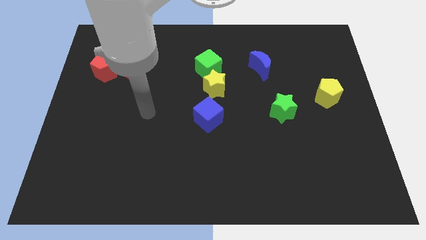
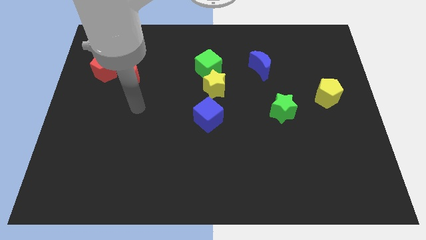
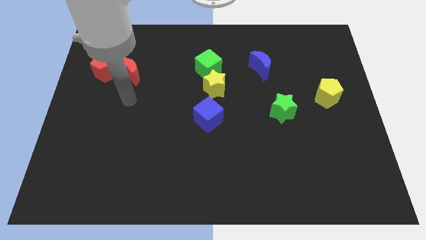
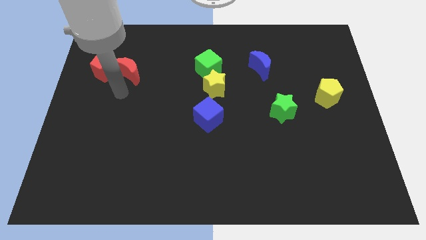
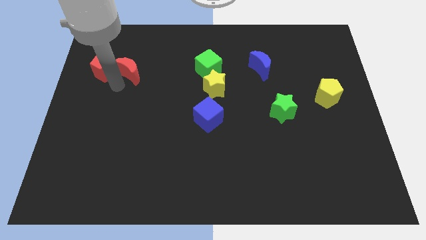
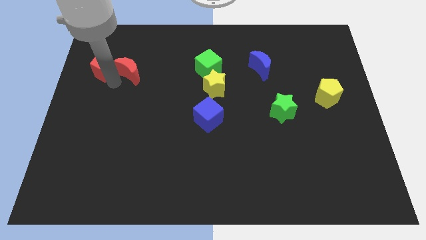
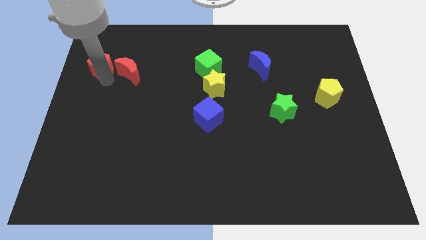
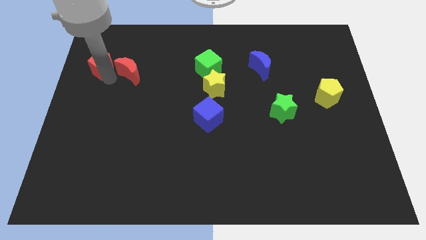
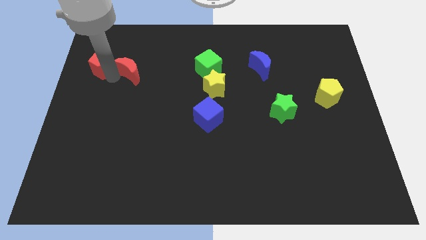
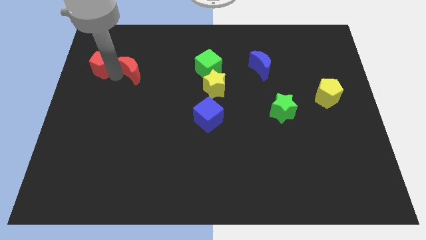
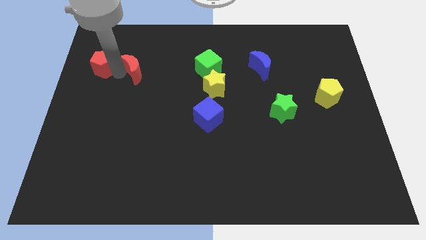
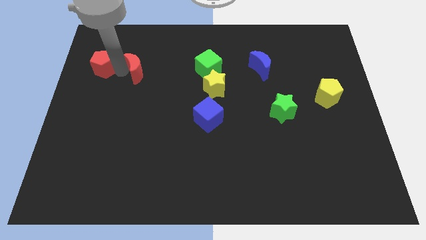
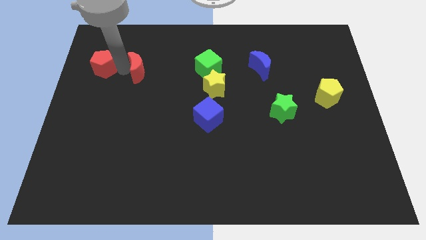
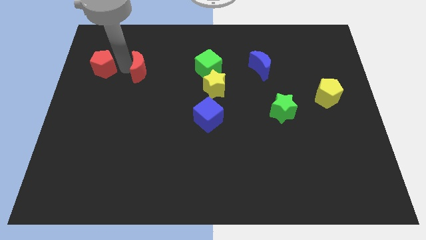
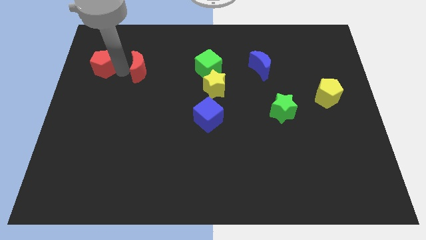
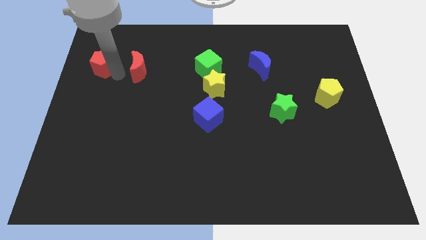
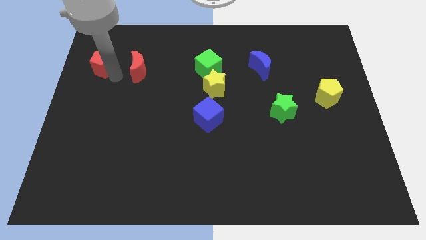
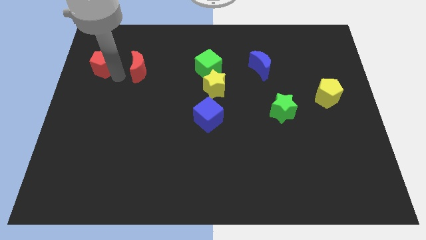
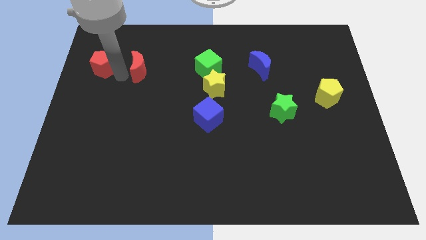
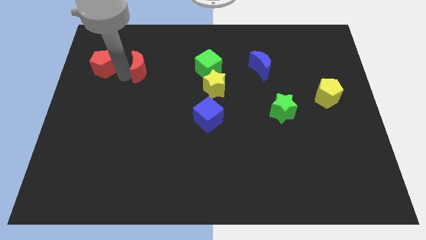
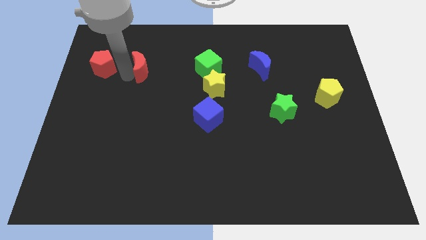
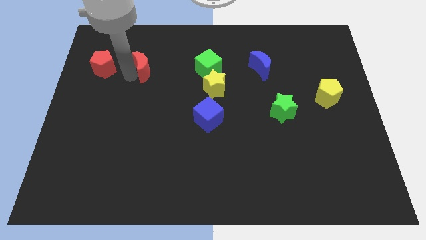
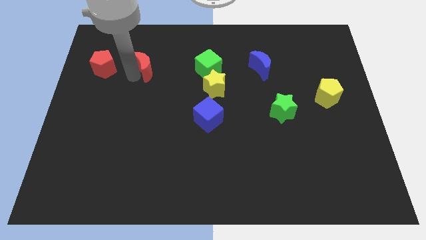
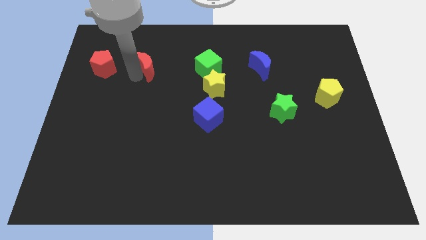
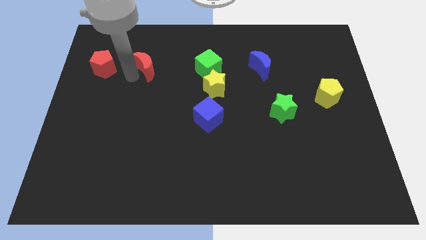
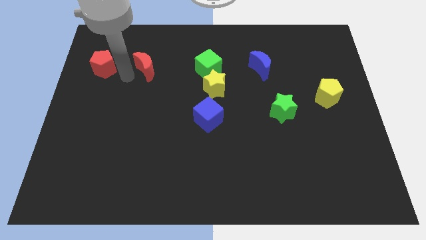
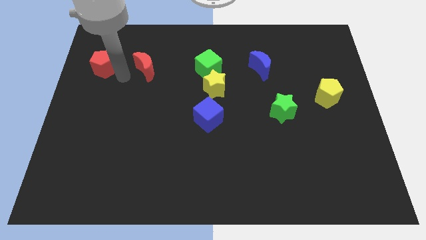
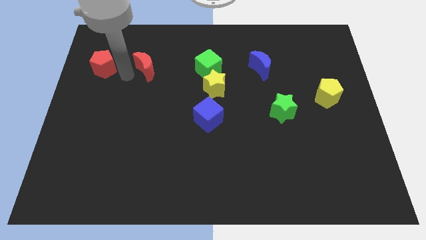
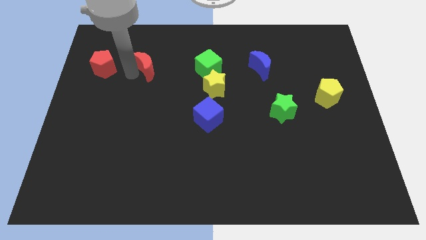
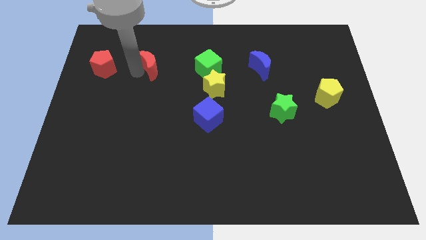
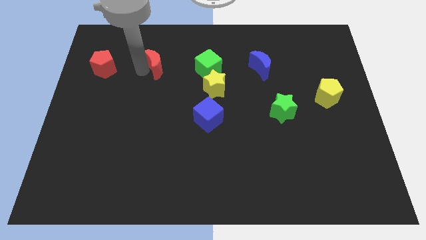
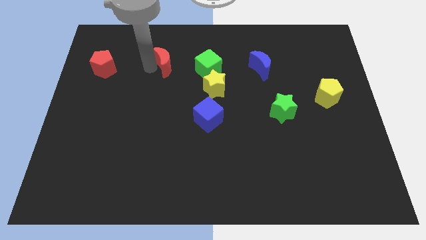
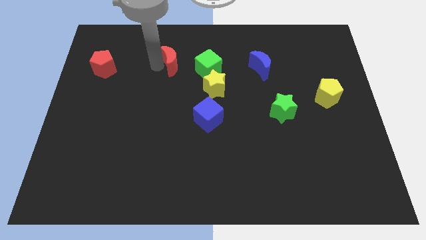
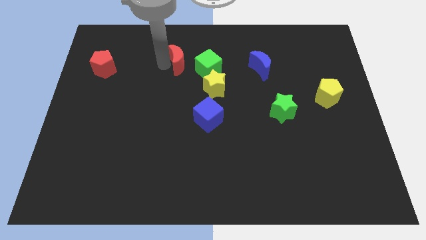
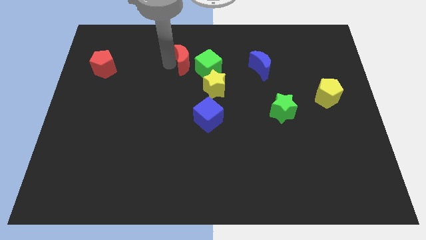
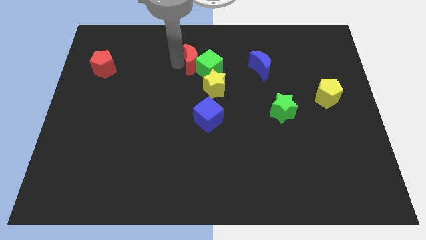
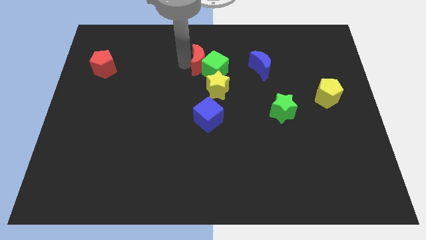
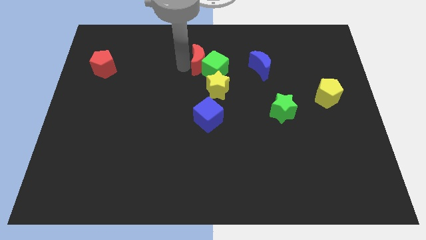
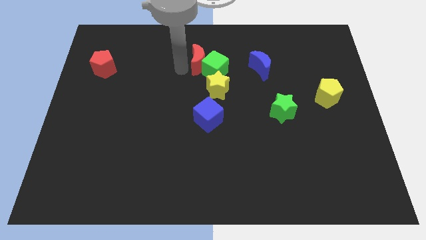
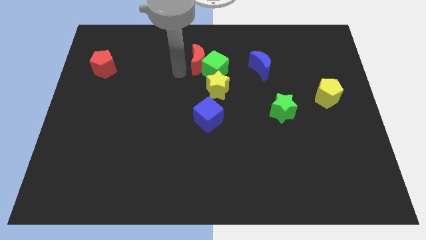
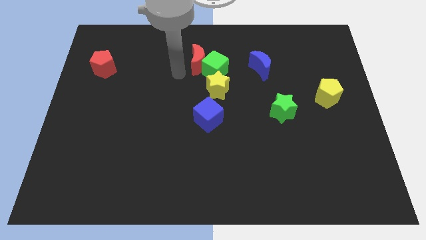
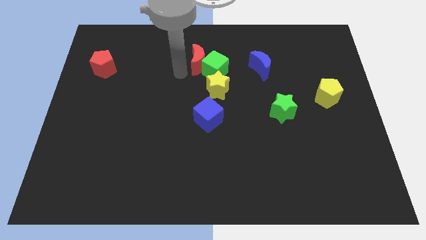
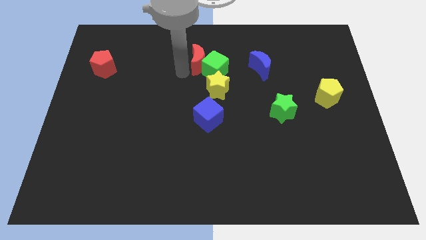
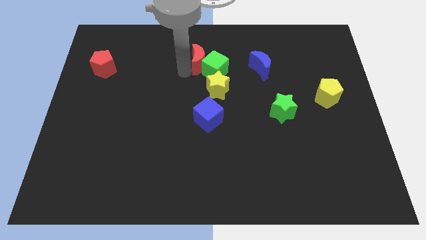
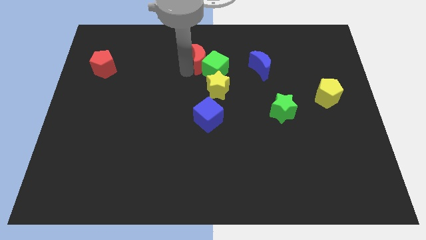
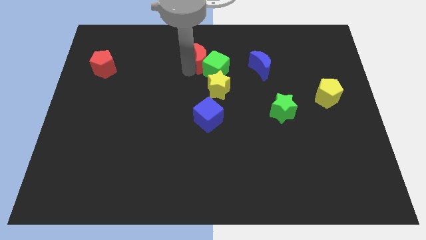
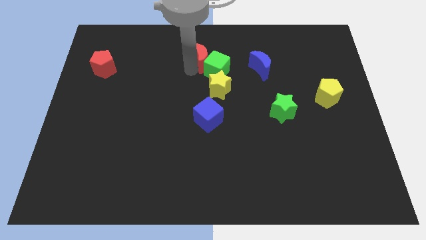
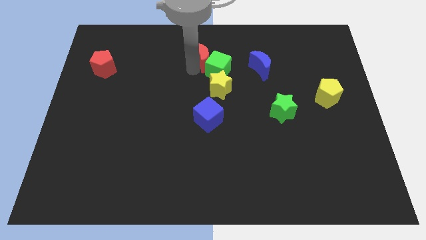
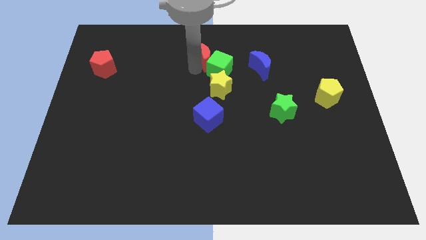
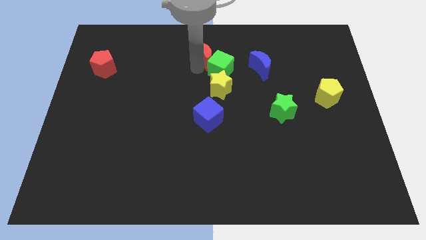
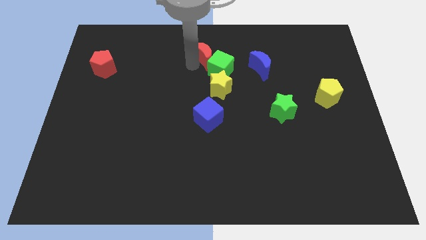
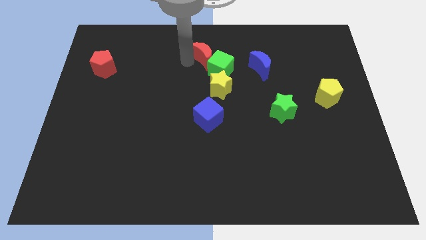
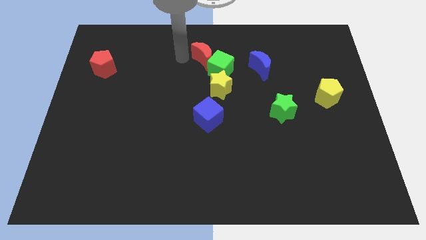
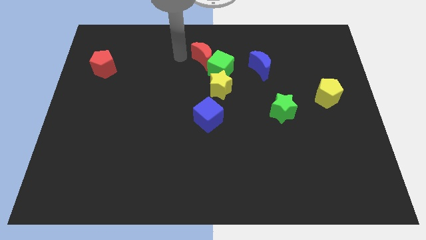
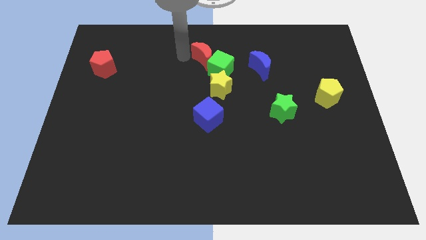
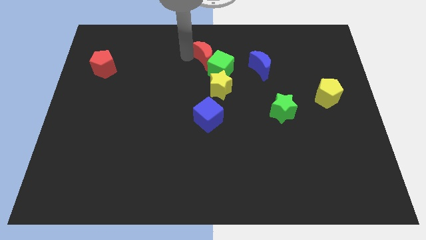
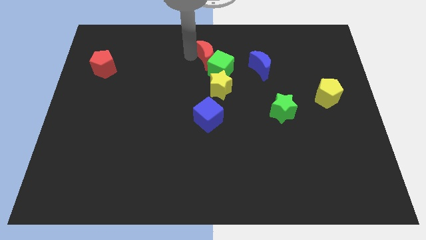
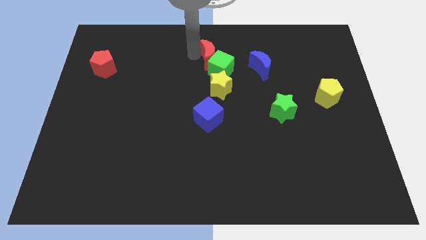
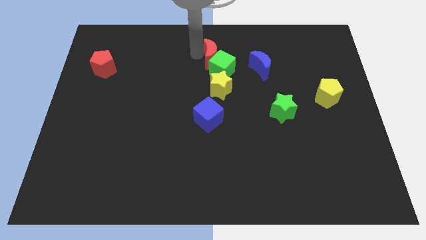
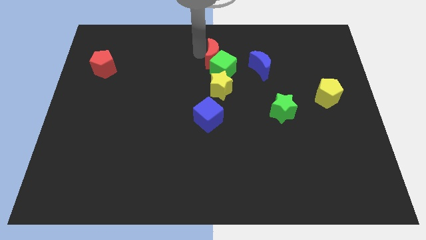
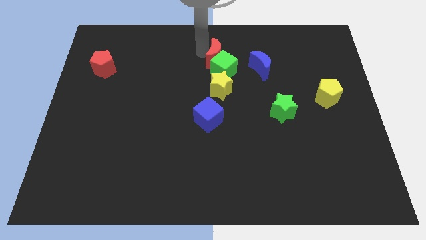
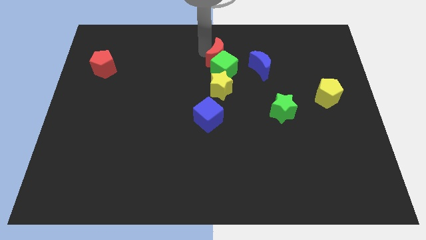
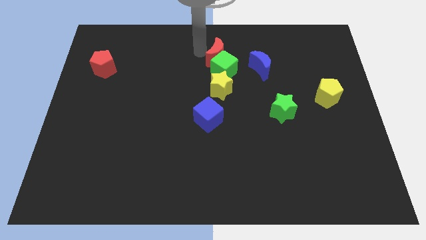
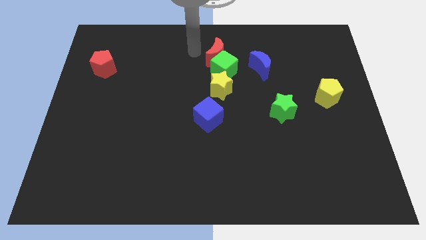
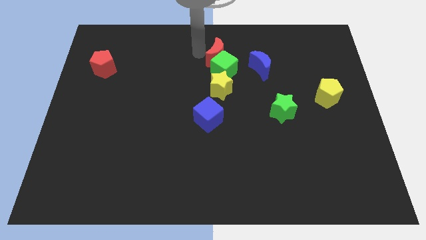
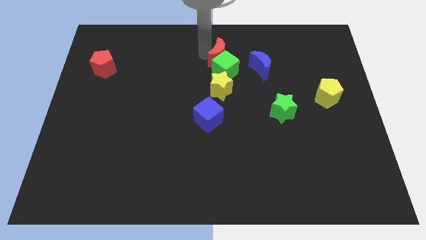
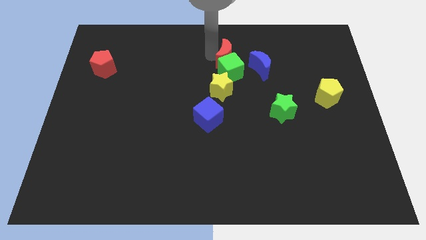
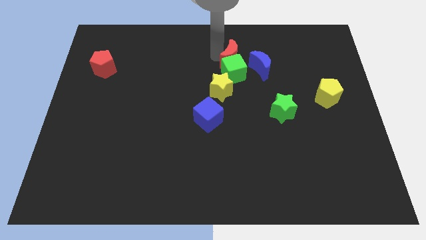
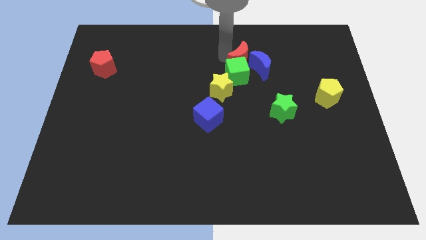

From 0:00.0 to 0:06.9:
slide the red moon towards the blue moon

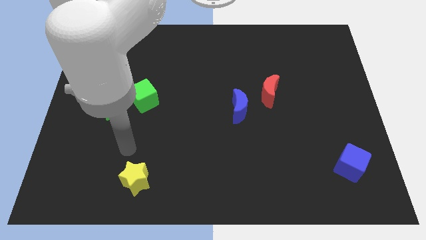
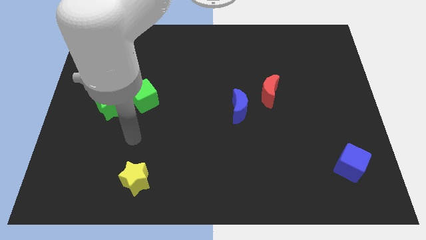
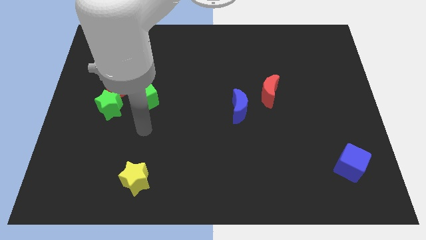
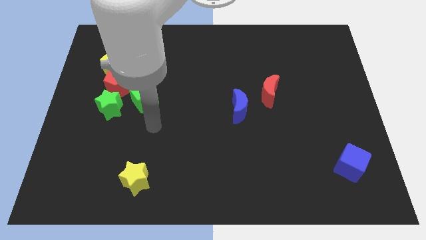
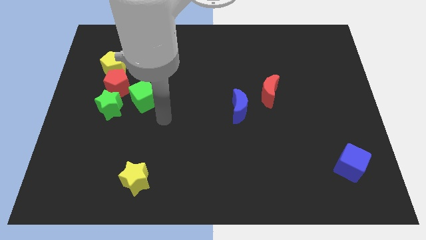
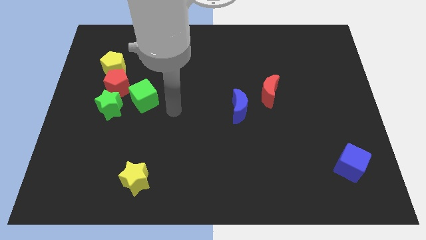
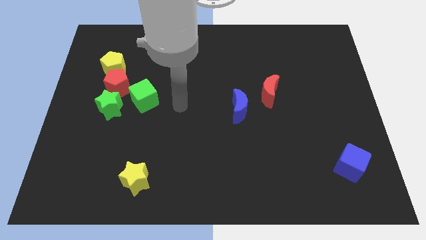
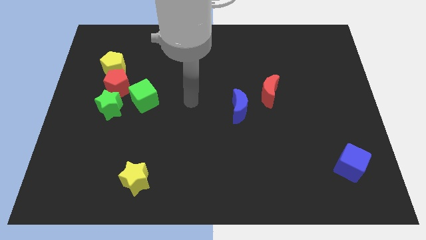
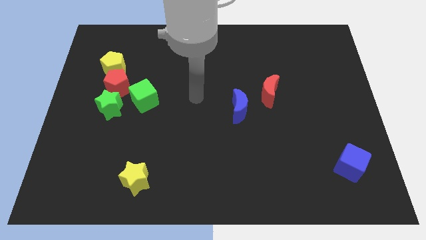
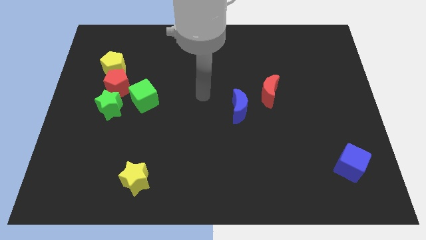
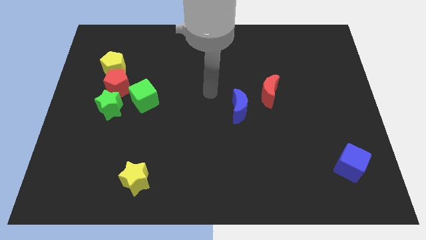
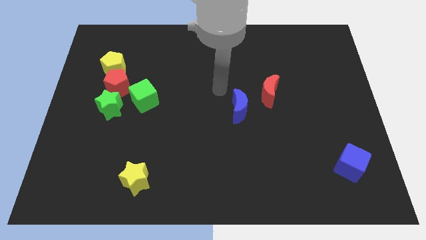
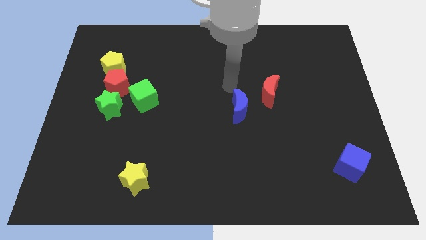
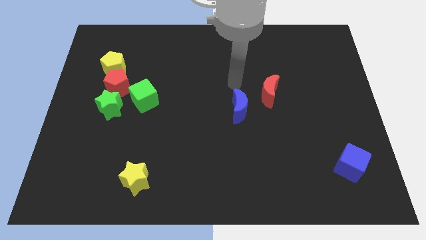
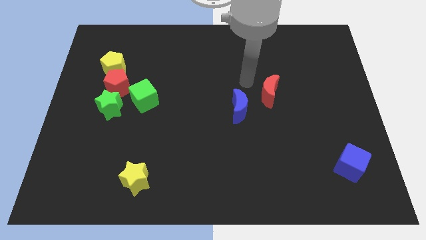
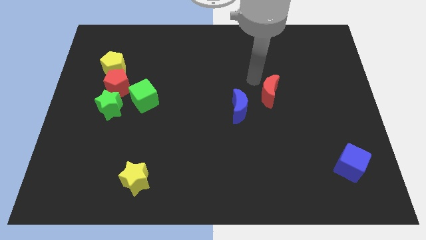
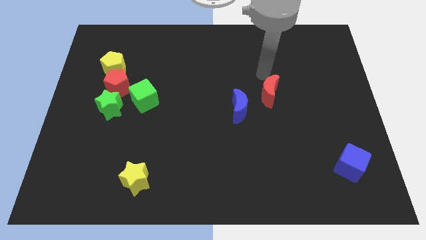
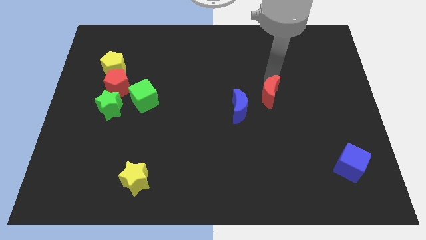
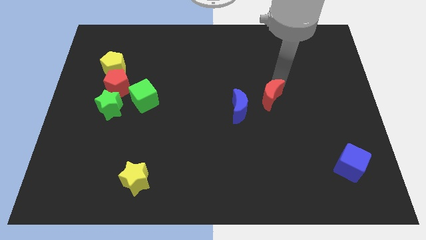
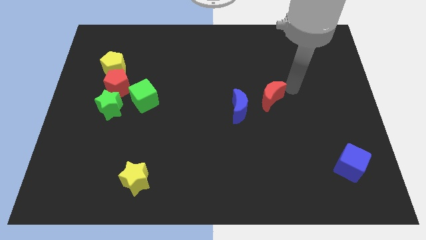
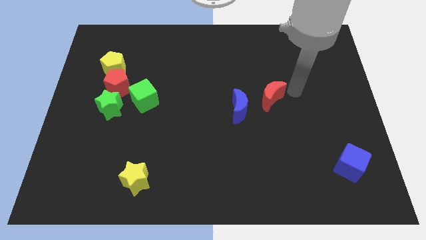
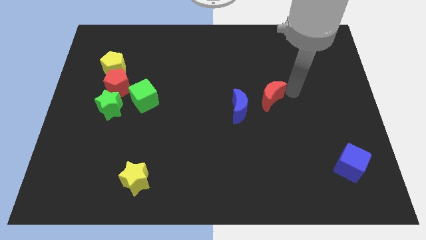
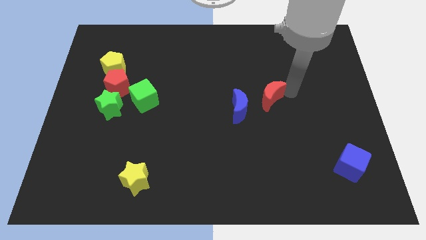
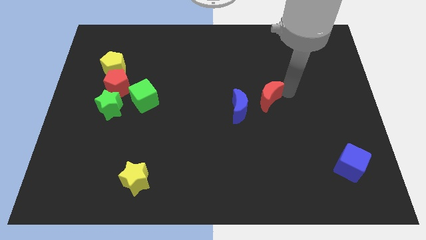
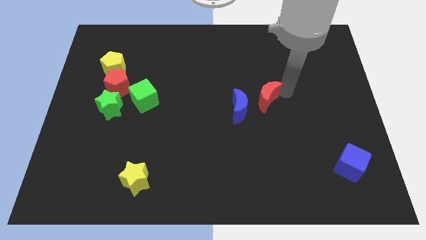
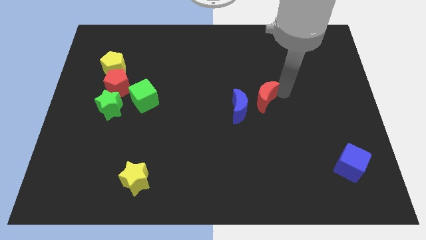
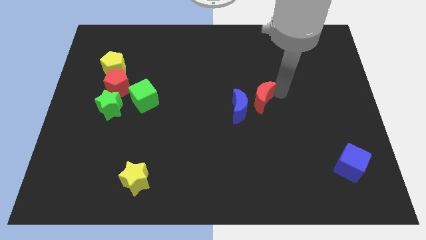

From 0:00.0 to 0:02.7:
put the red moon next to the blue moon
